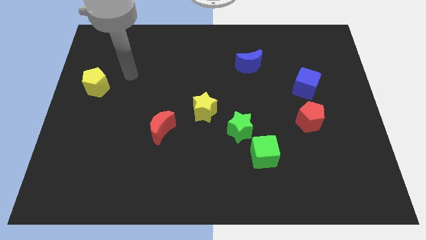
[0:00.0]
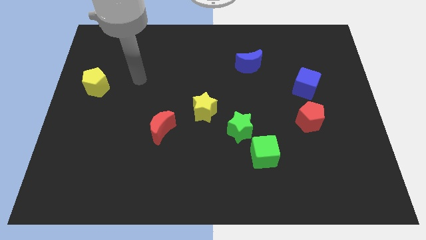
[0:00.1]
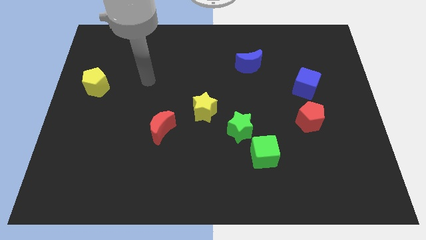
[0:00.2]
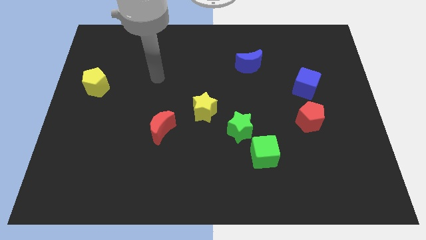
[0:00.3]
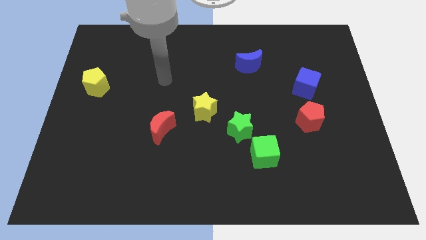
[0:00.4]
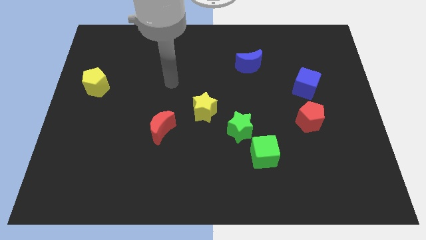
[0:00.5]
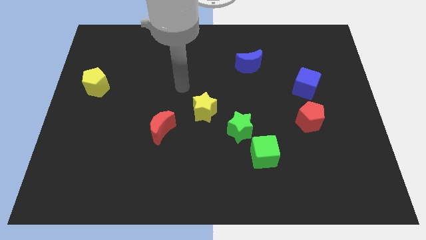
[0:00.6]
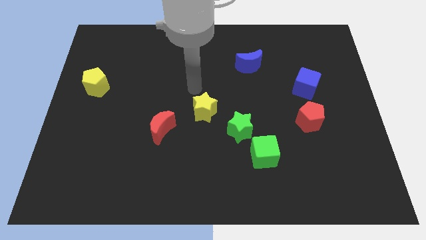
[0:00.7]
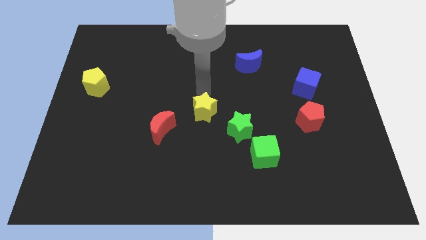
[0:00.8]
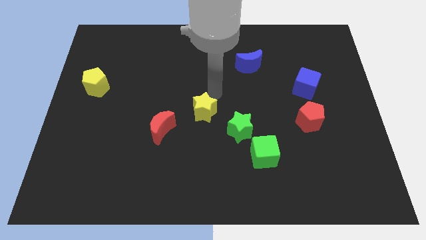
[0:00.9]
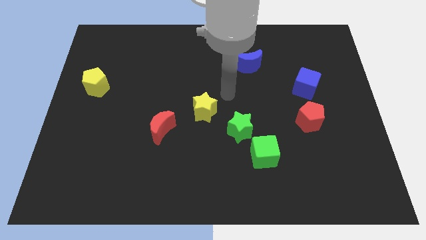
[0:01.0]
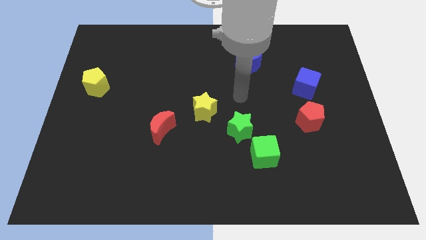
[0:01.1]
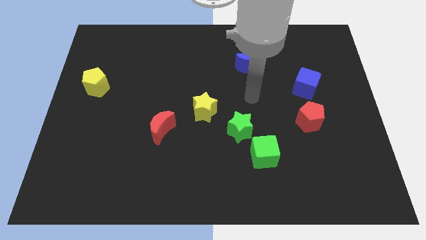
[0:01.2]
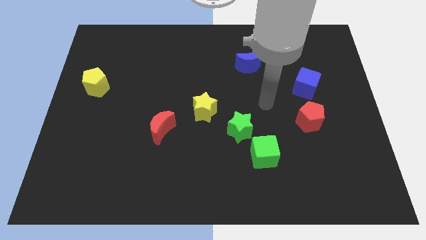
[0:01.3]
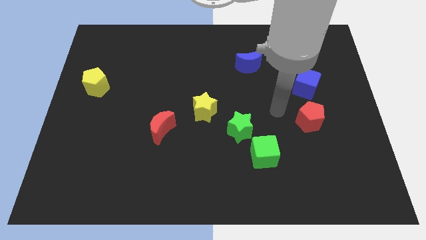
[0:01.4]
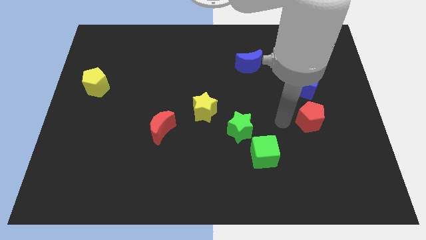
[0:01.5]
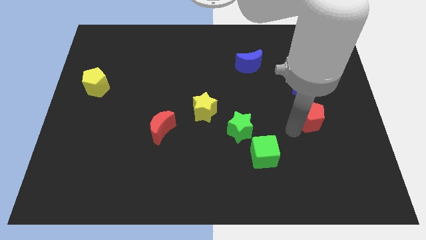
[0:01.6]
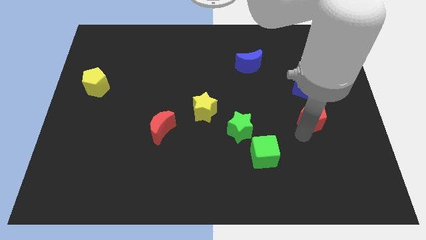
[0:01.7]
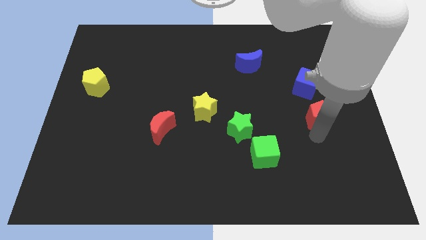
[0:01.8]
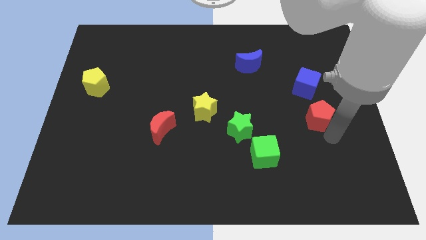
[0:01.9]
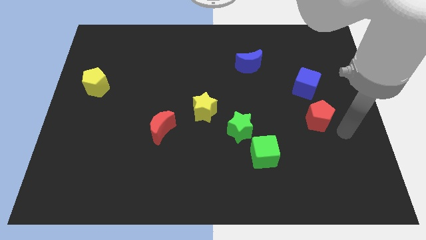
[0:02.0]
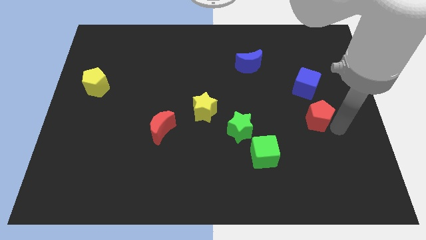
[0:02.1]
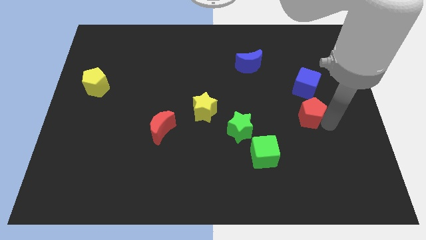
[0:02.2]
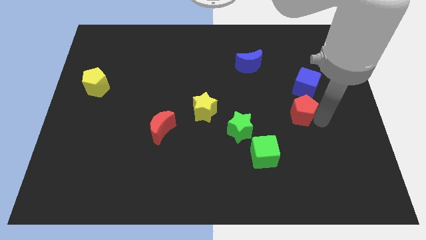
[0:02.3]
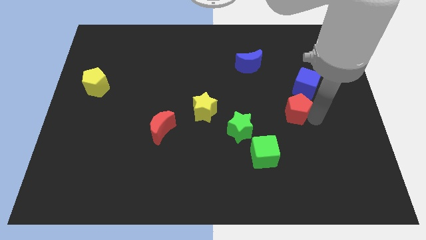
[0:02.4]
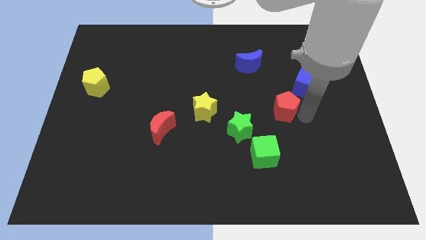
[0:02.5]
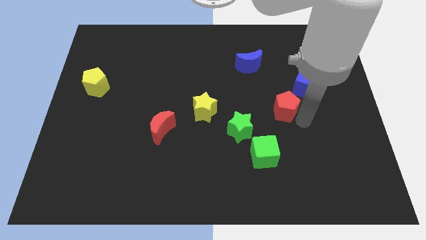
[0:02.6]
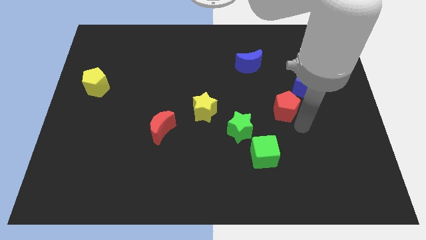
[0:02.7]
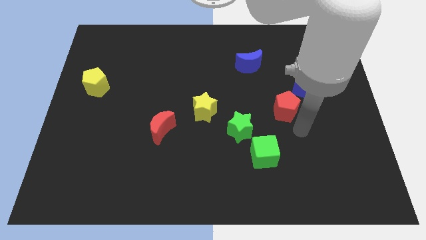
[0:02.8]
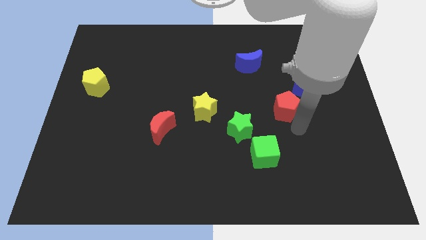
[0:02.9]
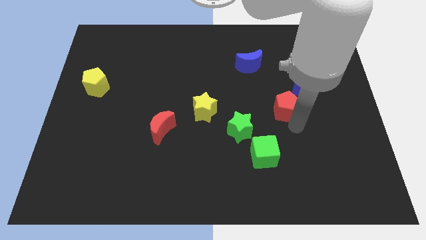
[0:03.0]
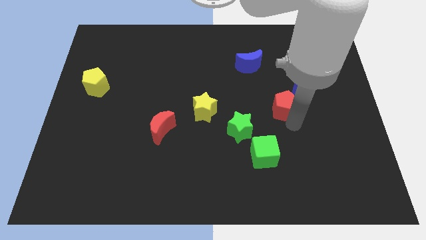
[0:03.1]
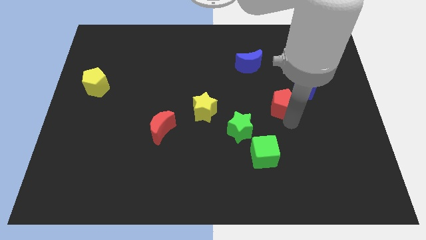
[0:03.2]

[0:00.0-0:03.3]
slightly move the red pentagon upwards and then left

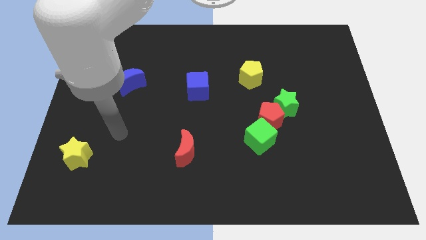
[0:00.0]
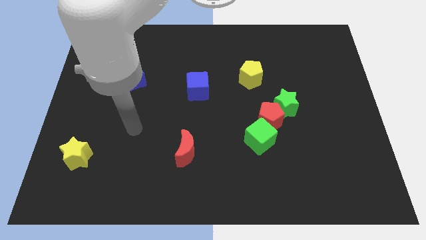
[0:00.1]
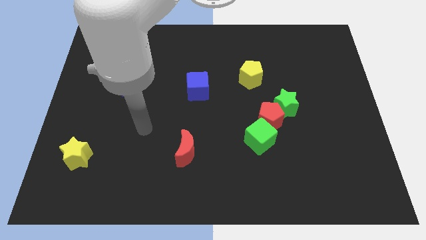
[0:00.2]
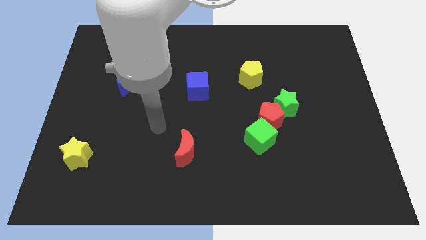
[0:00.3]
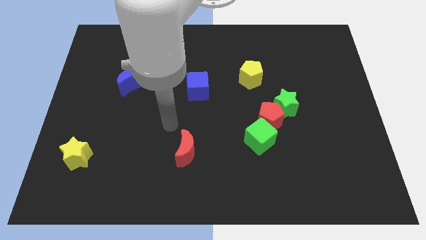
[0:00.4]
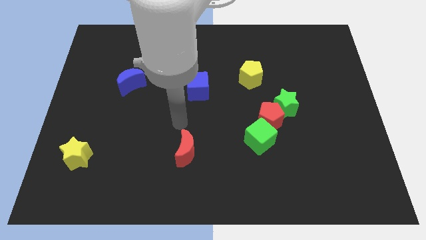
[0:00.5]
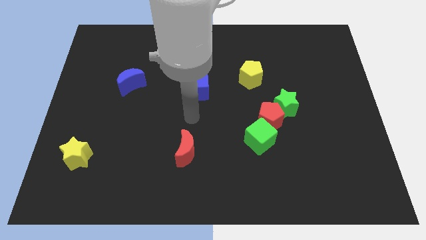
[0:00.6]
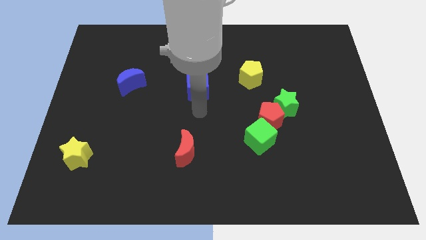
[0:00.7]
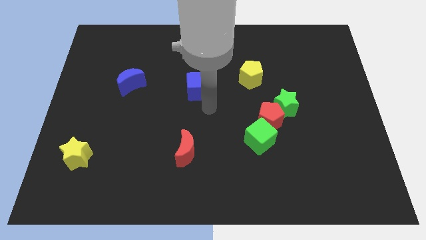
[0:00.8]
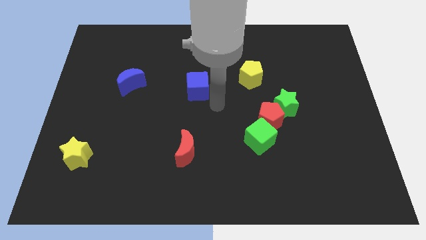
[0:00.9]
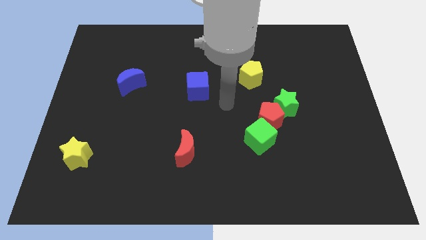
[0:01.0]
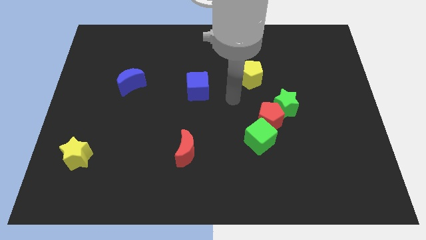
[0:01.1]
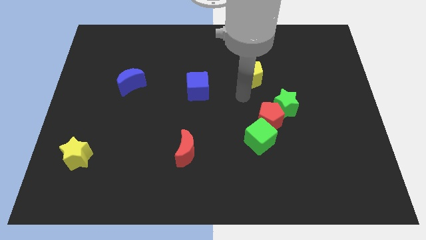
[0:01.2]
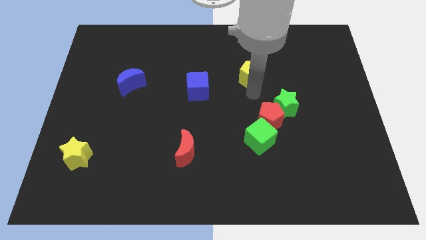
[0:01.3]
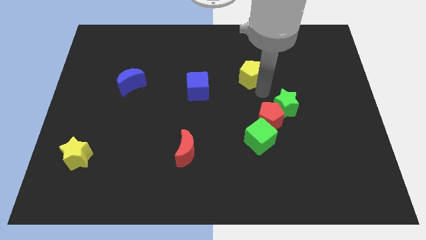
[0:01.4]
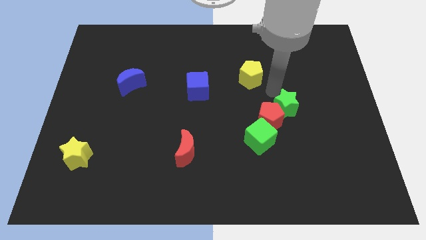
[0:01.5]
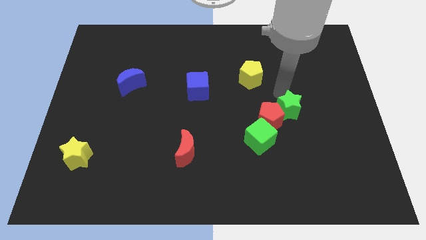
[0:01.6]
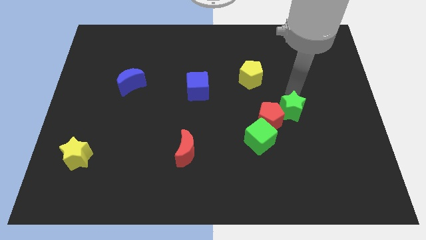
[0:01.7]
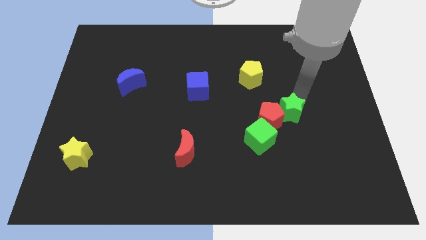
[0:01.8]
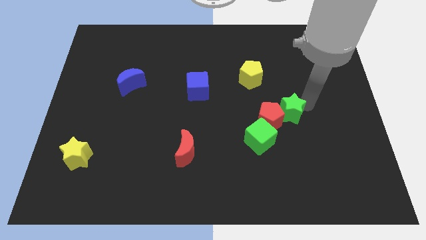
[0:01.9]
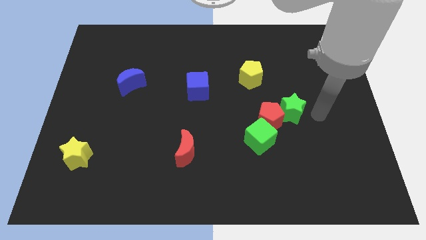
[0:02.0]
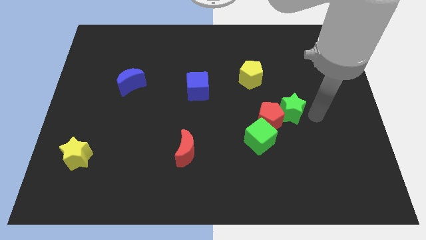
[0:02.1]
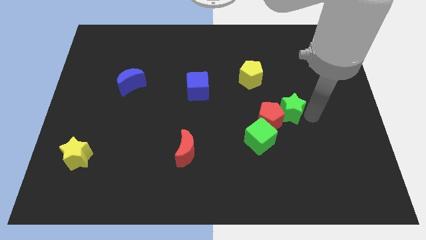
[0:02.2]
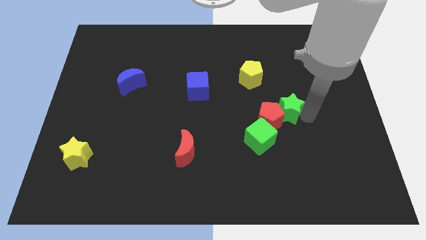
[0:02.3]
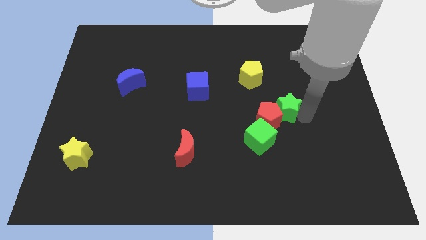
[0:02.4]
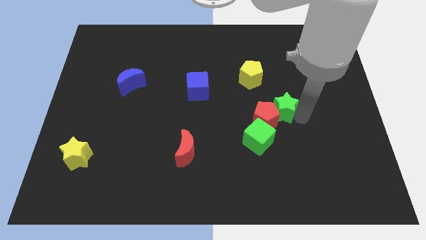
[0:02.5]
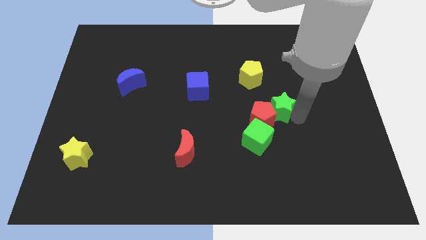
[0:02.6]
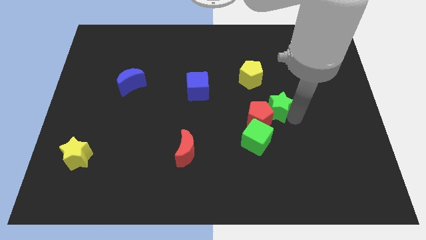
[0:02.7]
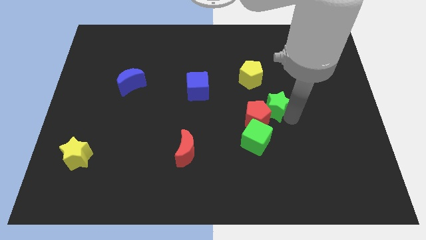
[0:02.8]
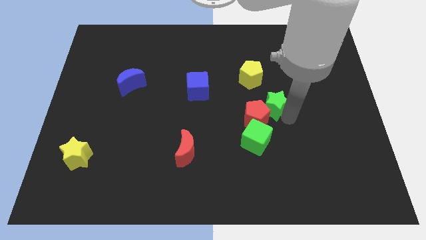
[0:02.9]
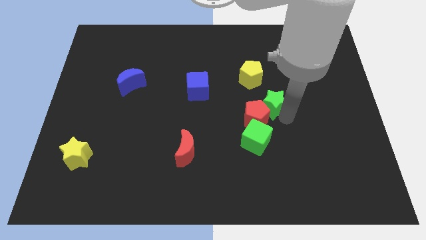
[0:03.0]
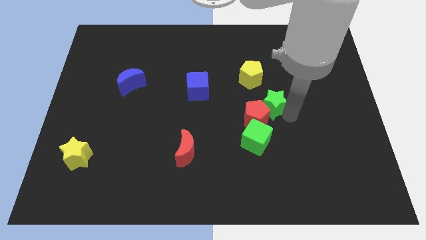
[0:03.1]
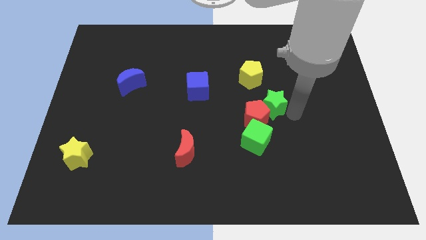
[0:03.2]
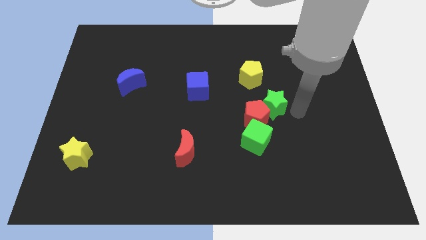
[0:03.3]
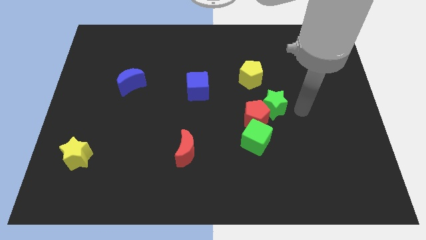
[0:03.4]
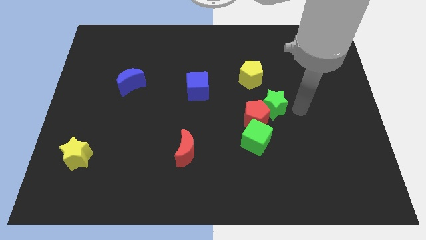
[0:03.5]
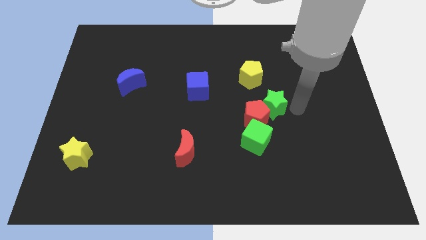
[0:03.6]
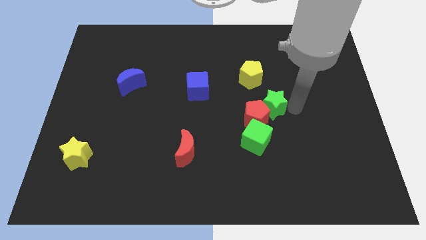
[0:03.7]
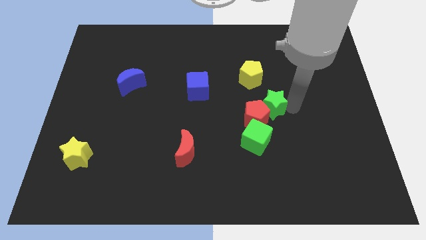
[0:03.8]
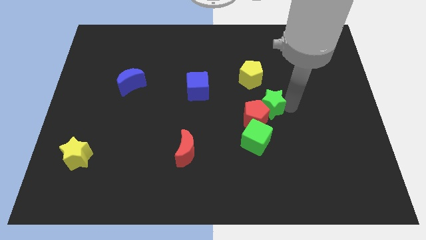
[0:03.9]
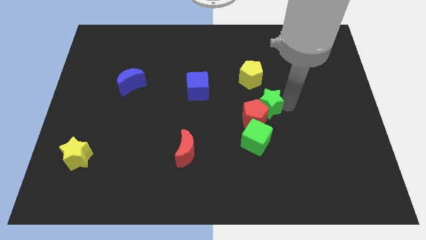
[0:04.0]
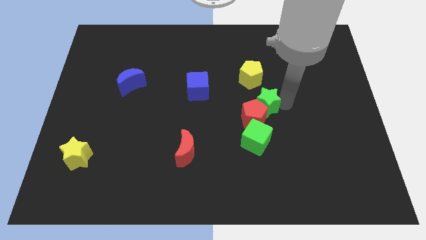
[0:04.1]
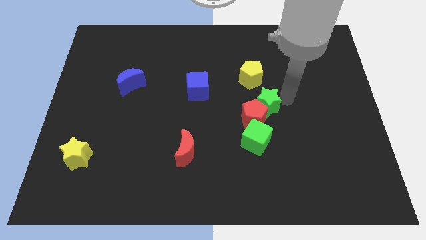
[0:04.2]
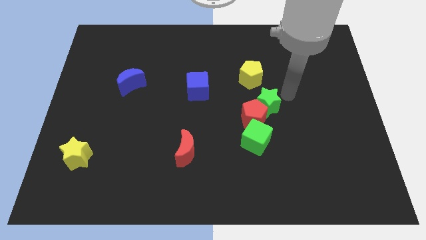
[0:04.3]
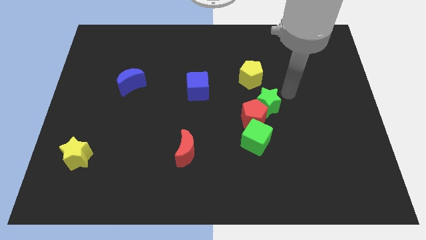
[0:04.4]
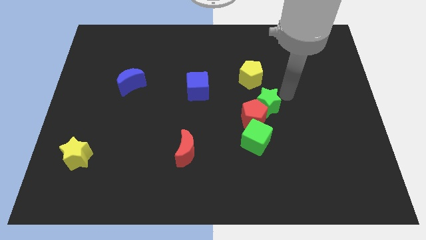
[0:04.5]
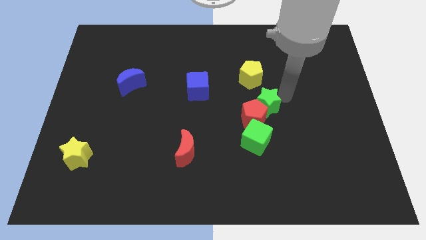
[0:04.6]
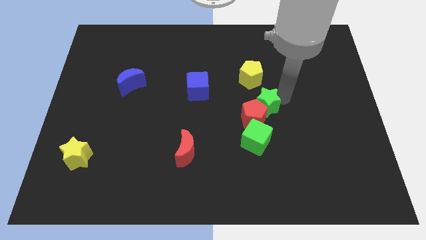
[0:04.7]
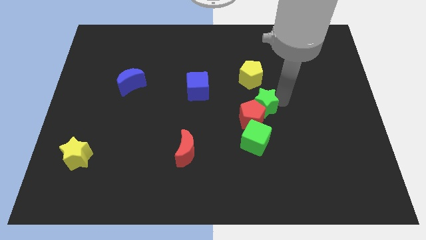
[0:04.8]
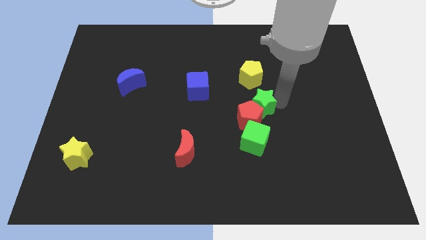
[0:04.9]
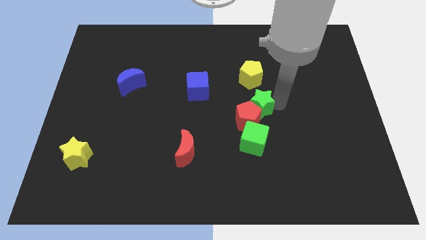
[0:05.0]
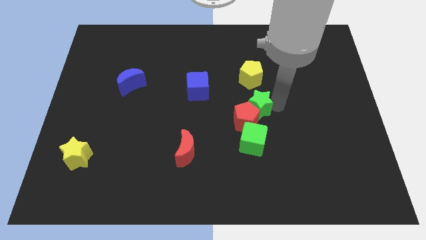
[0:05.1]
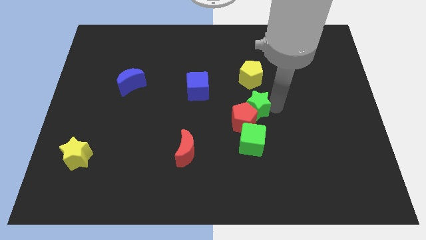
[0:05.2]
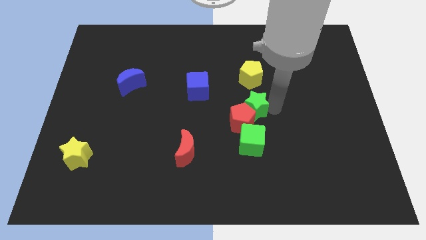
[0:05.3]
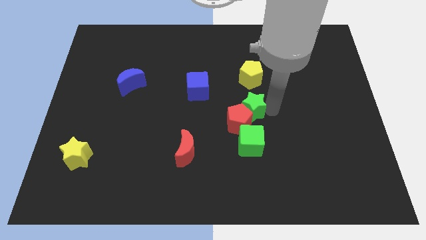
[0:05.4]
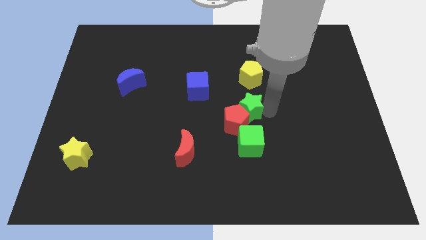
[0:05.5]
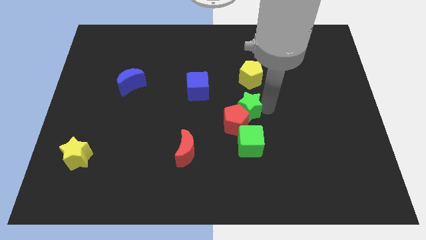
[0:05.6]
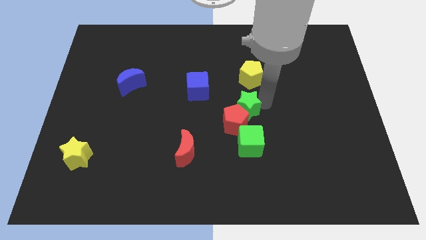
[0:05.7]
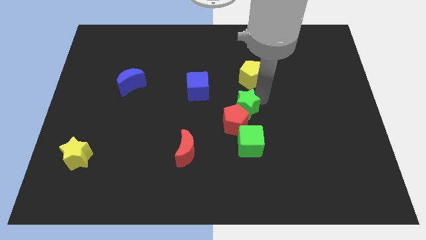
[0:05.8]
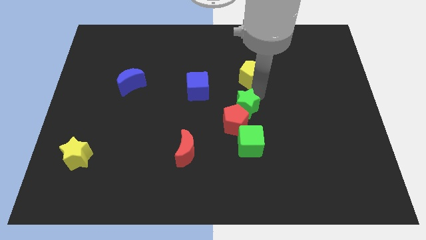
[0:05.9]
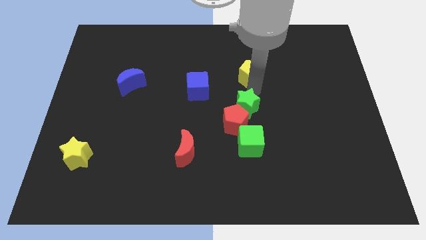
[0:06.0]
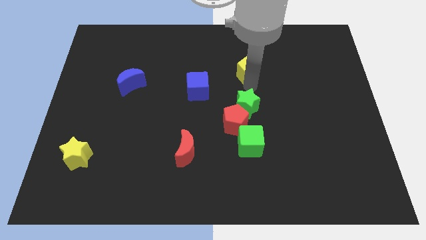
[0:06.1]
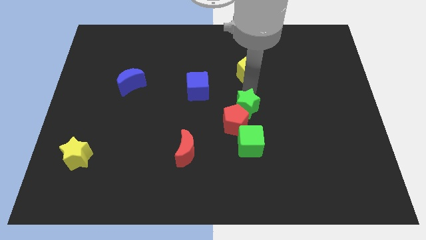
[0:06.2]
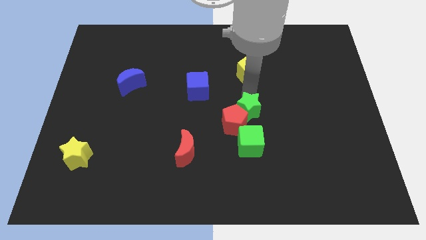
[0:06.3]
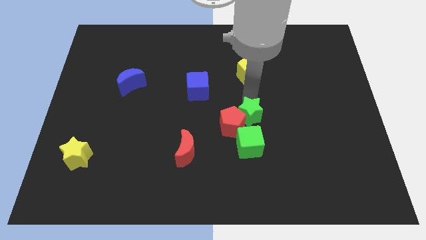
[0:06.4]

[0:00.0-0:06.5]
push the green star a little bit diagonally down and left
